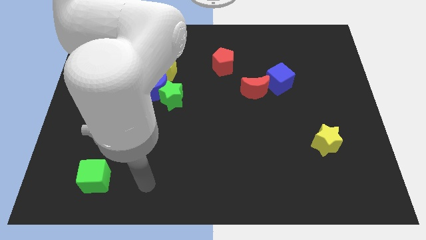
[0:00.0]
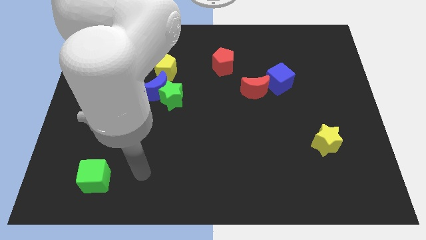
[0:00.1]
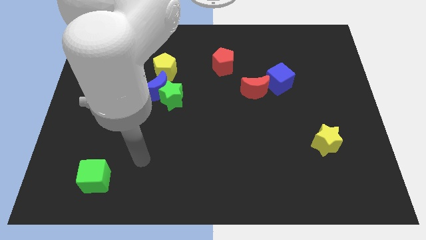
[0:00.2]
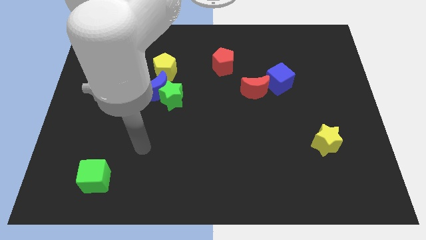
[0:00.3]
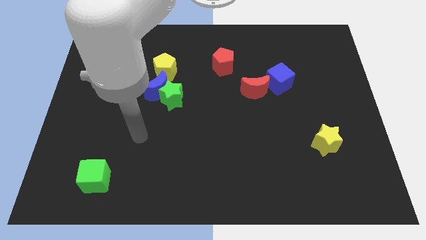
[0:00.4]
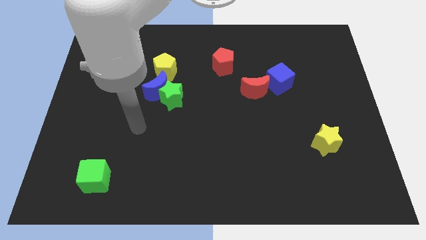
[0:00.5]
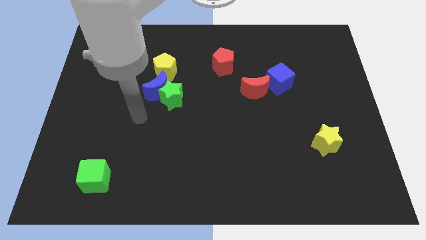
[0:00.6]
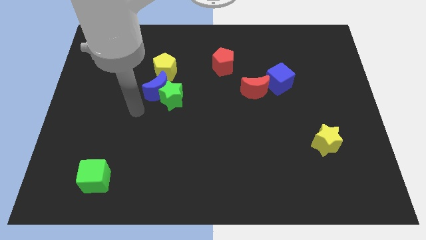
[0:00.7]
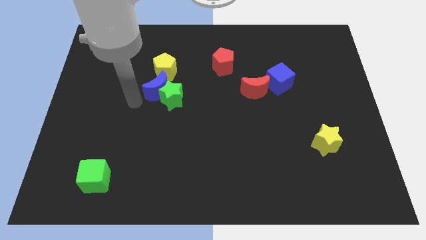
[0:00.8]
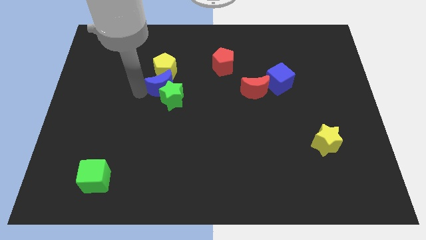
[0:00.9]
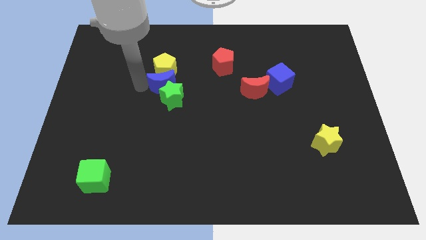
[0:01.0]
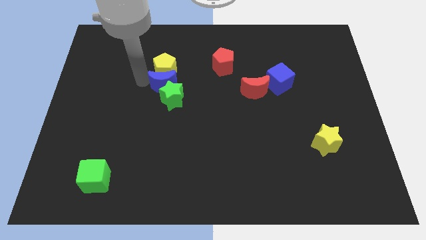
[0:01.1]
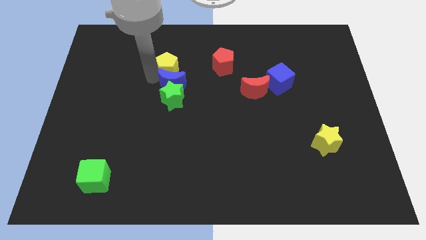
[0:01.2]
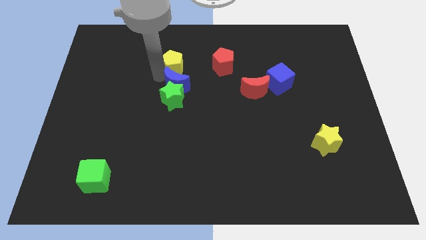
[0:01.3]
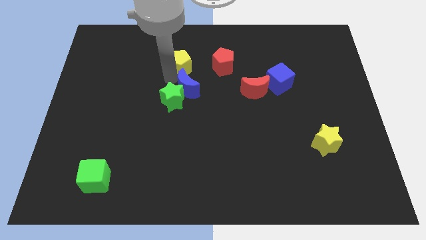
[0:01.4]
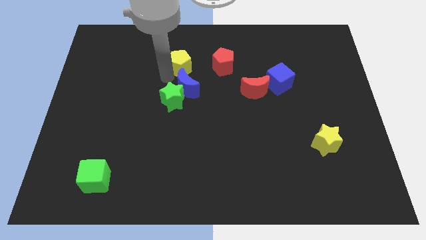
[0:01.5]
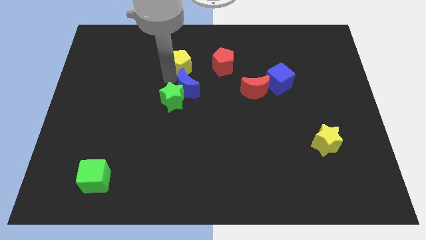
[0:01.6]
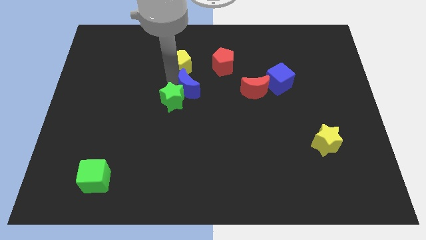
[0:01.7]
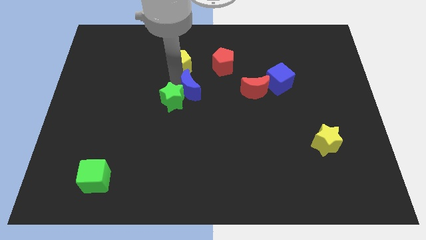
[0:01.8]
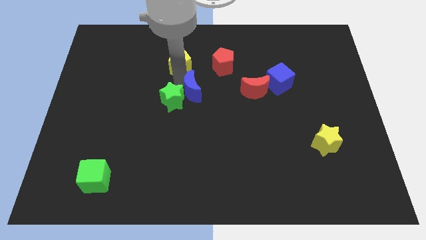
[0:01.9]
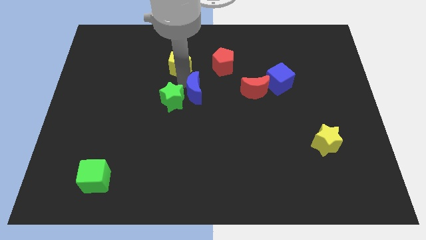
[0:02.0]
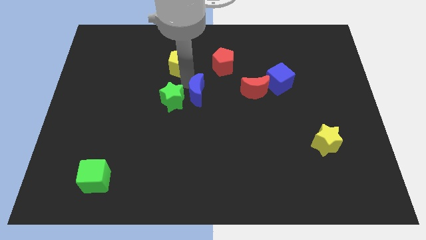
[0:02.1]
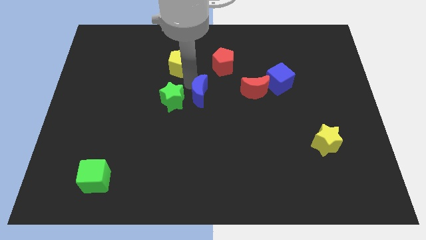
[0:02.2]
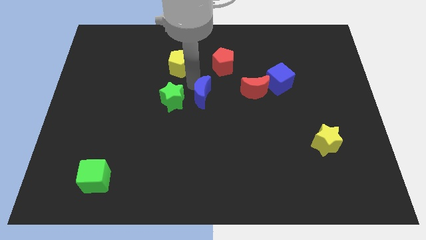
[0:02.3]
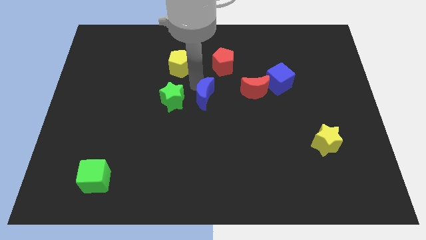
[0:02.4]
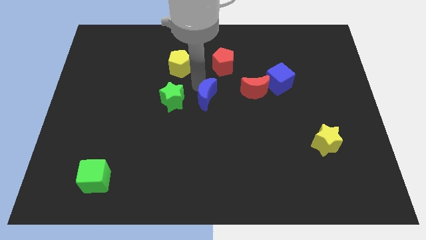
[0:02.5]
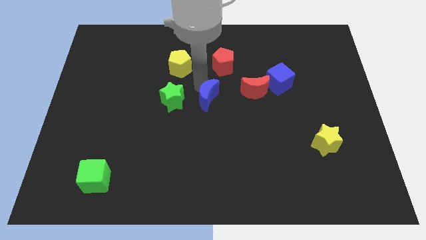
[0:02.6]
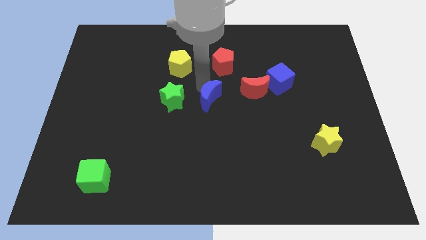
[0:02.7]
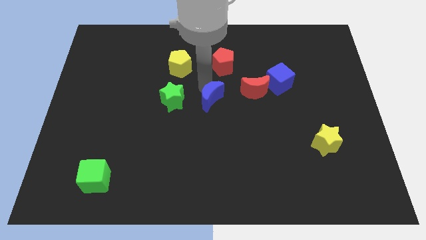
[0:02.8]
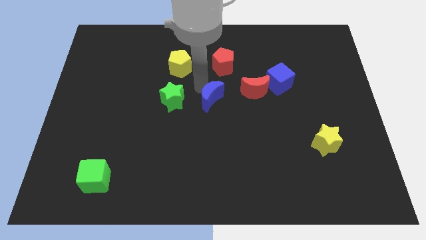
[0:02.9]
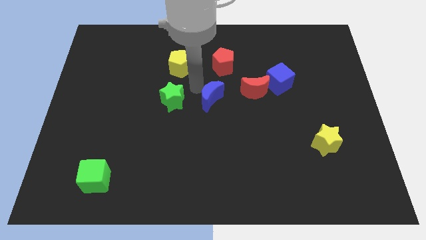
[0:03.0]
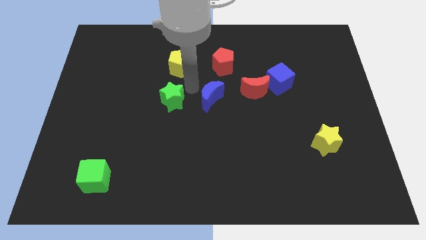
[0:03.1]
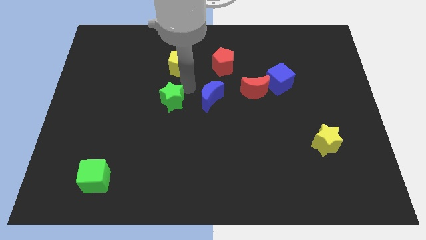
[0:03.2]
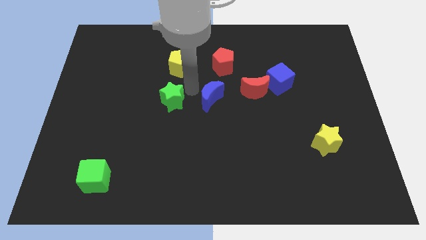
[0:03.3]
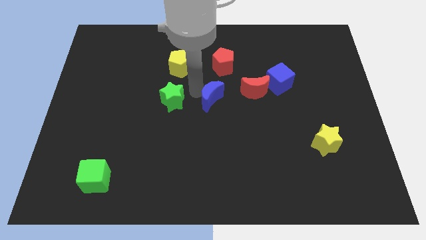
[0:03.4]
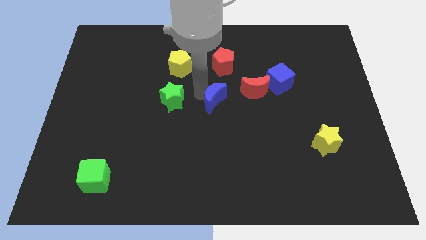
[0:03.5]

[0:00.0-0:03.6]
pull the blue moon apart from the green star and yellow pentagon

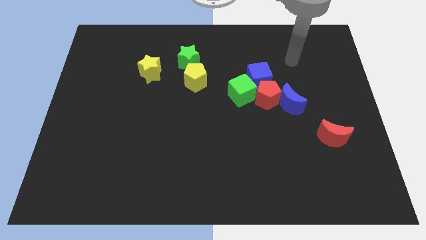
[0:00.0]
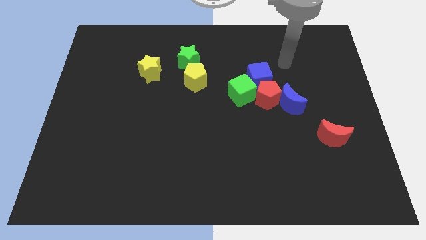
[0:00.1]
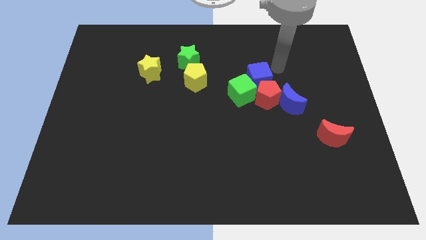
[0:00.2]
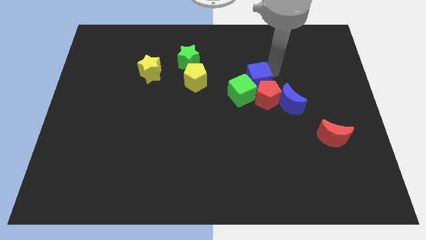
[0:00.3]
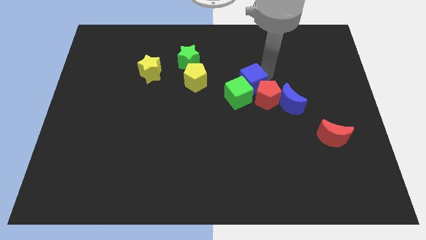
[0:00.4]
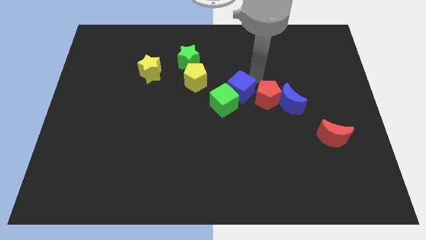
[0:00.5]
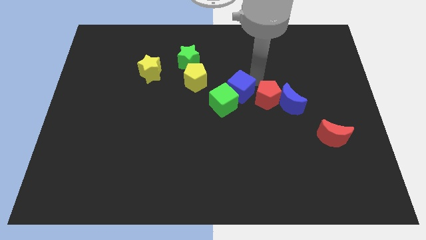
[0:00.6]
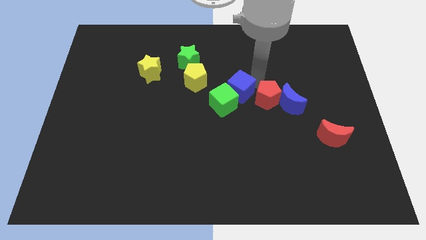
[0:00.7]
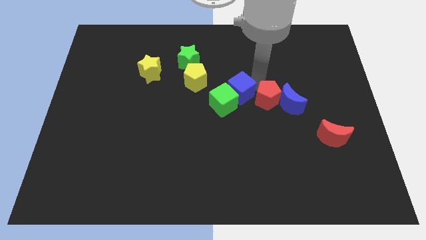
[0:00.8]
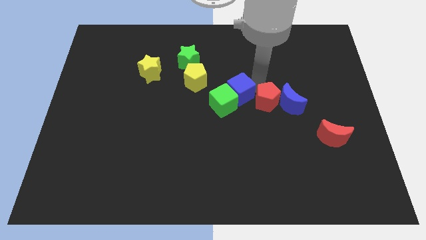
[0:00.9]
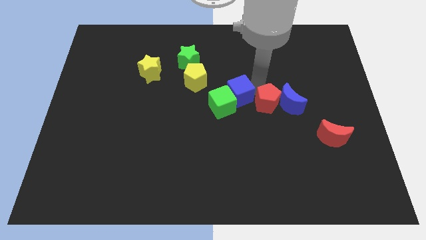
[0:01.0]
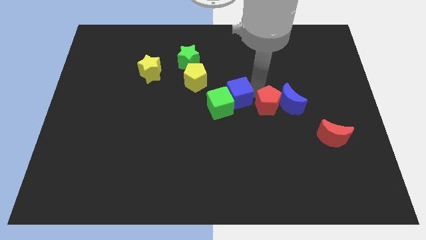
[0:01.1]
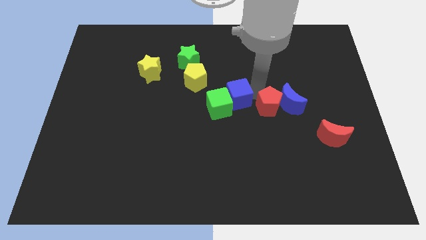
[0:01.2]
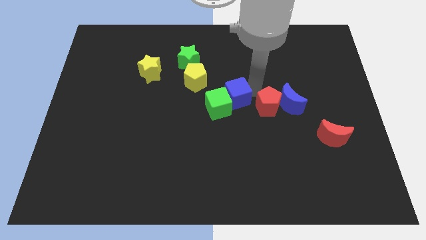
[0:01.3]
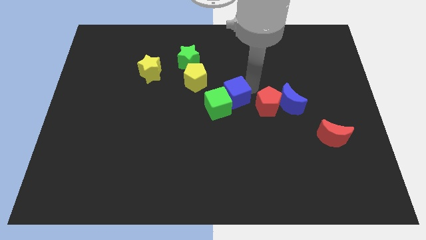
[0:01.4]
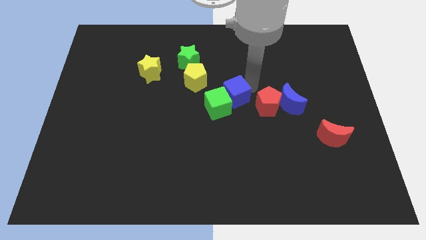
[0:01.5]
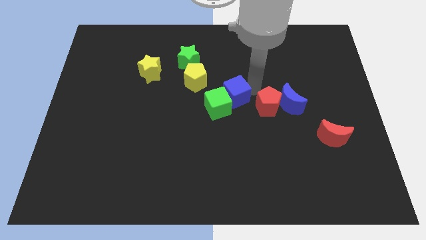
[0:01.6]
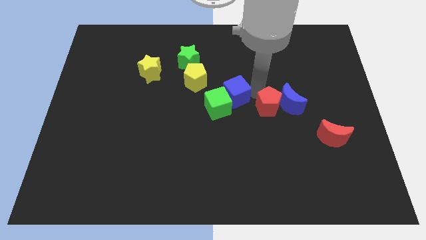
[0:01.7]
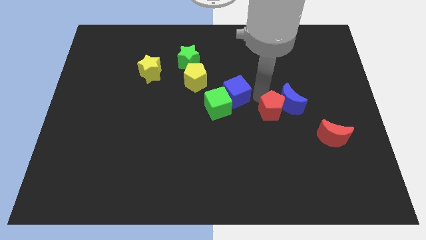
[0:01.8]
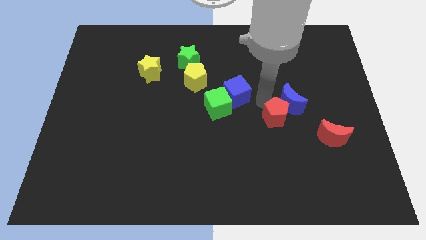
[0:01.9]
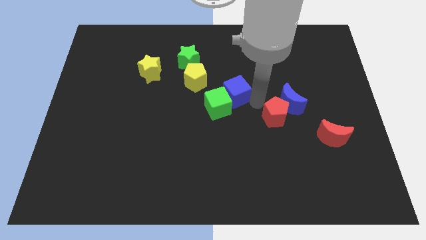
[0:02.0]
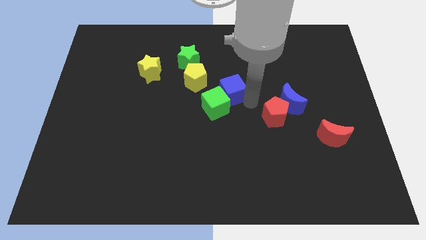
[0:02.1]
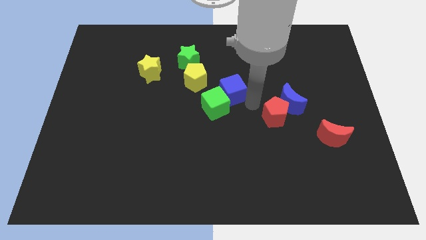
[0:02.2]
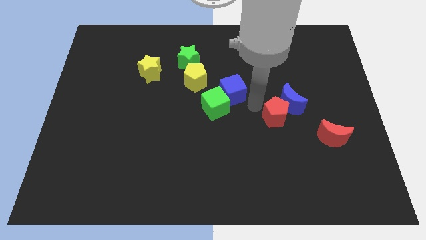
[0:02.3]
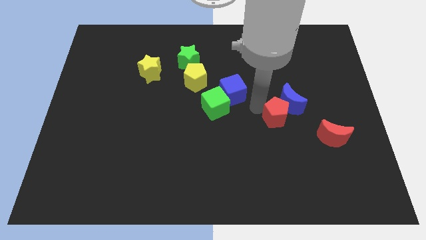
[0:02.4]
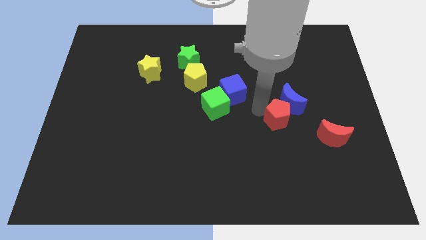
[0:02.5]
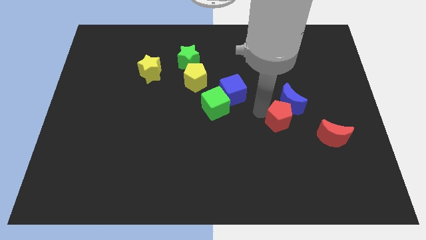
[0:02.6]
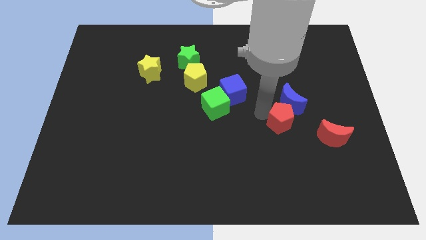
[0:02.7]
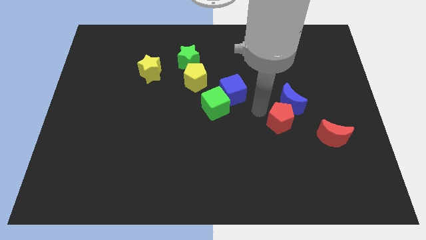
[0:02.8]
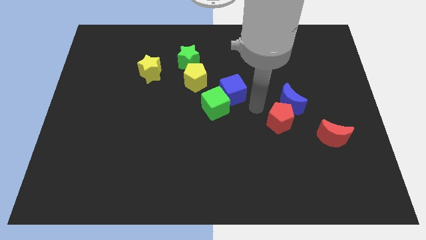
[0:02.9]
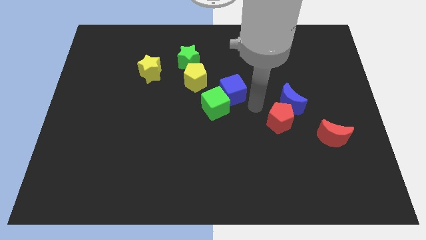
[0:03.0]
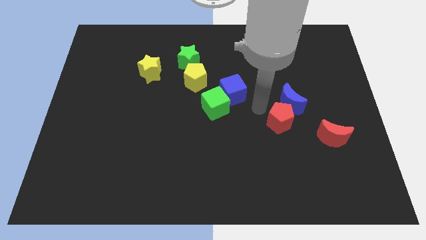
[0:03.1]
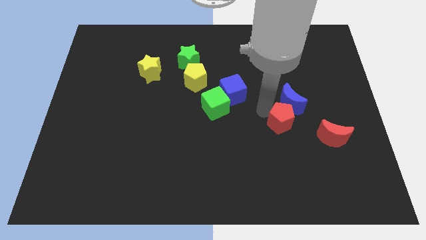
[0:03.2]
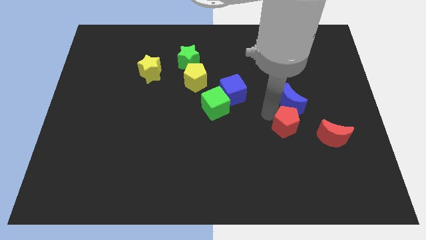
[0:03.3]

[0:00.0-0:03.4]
move the red pentagon away from the blue moon, blue cube, and green cube

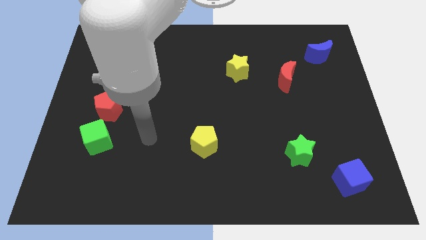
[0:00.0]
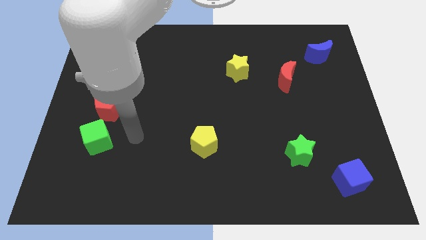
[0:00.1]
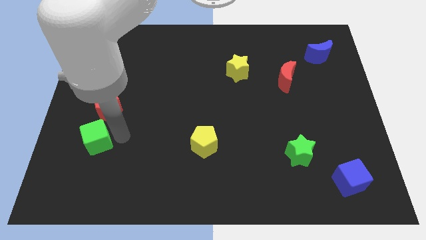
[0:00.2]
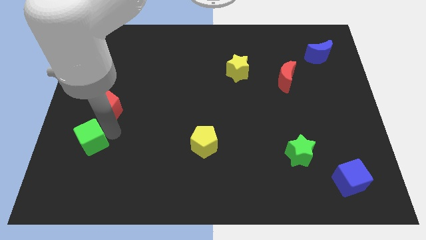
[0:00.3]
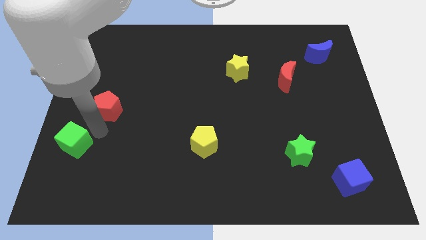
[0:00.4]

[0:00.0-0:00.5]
move the red pentagon away from the green cube

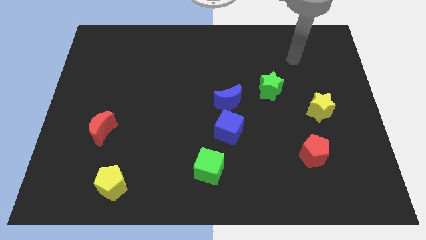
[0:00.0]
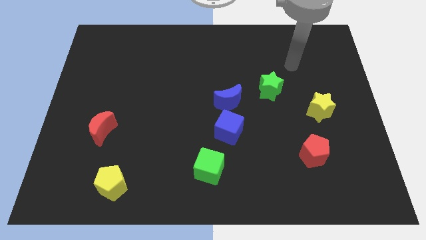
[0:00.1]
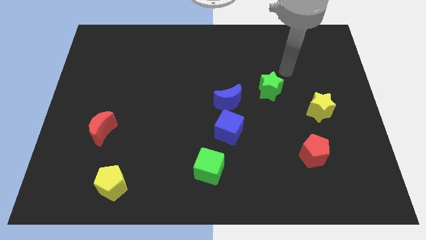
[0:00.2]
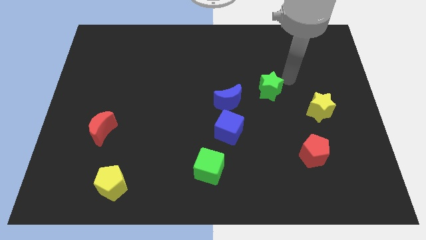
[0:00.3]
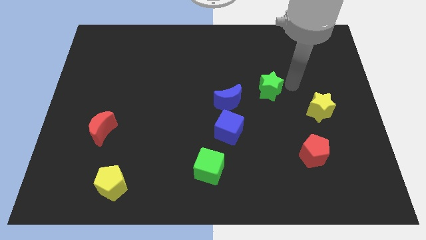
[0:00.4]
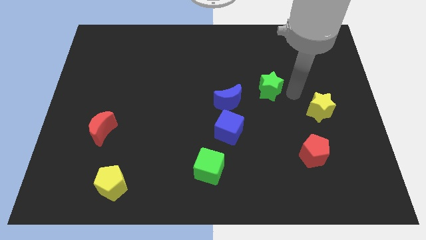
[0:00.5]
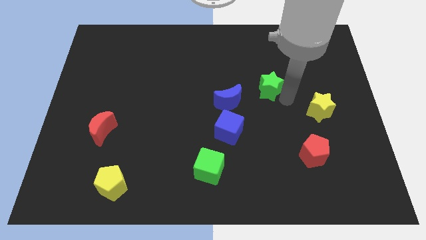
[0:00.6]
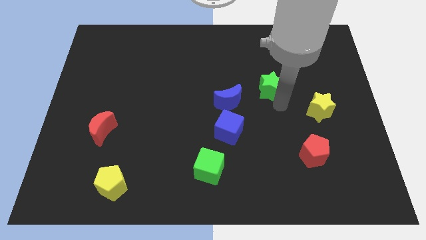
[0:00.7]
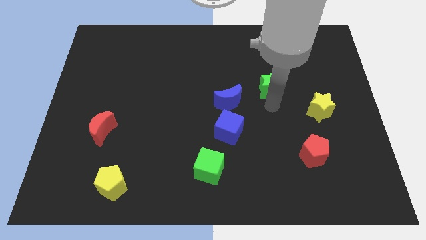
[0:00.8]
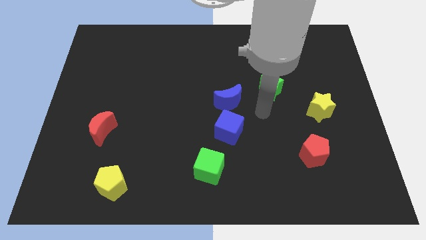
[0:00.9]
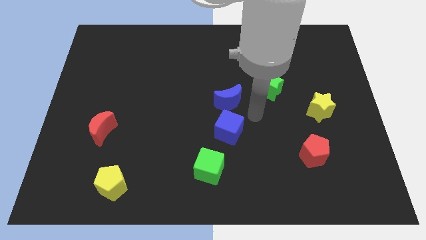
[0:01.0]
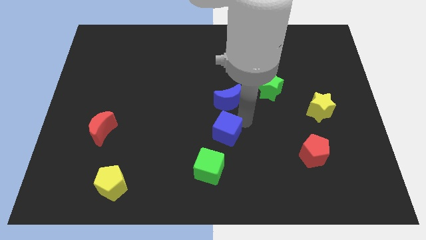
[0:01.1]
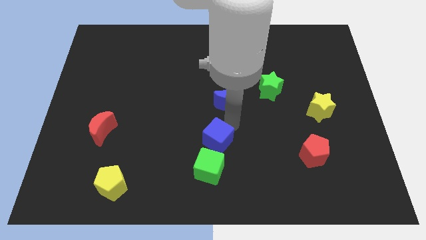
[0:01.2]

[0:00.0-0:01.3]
separate the blue moon from the blue cube

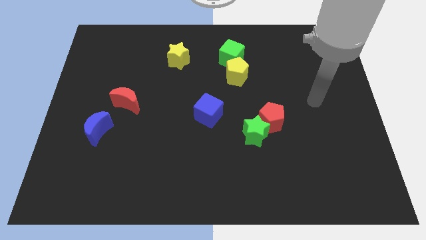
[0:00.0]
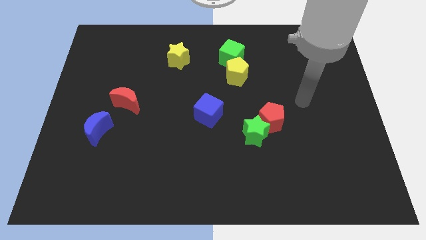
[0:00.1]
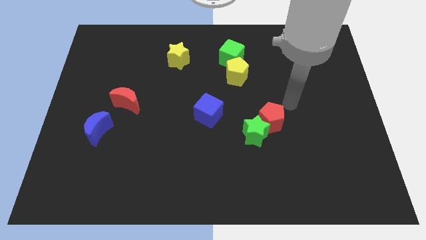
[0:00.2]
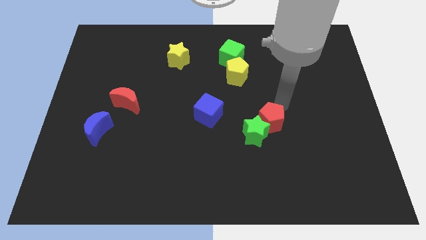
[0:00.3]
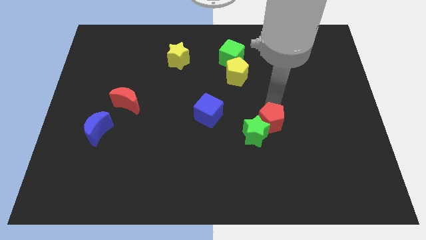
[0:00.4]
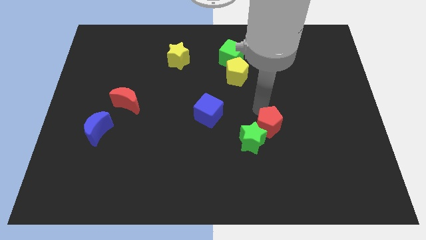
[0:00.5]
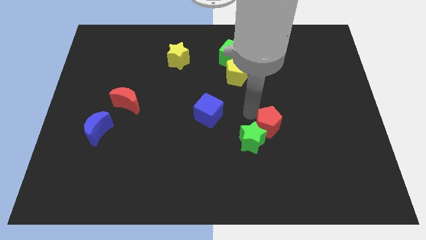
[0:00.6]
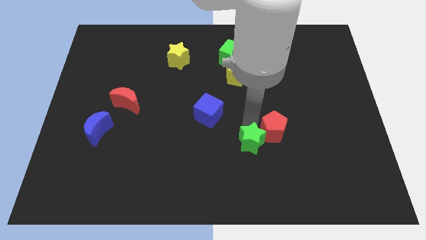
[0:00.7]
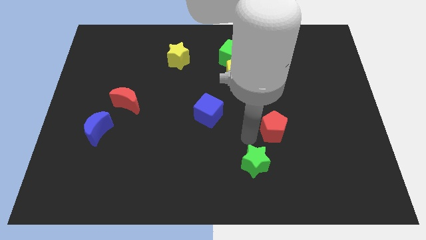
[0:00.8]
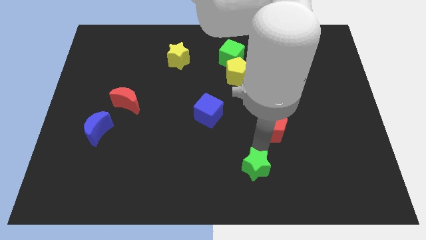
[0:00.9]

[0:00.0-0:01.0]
move the red pentagon away from the green star
